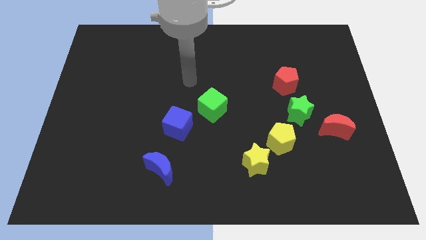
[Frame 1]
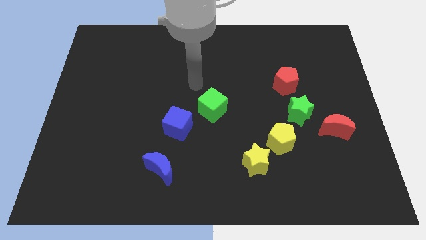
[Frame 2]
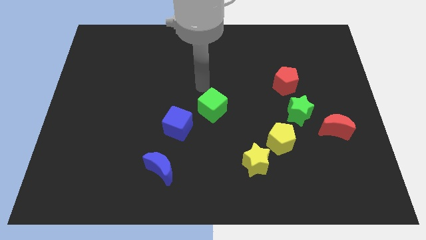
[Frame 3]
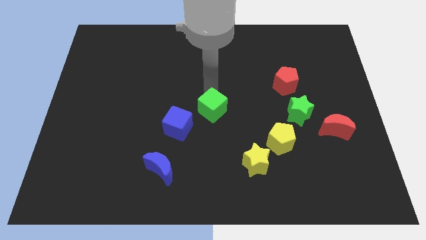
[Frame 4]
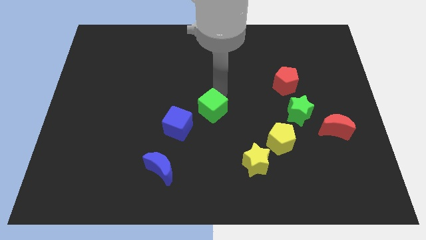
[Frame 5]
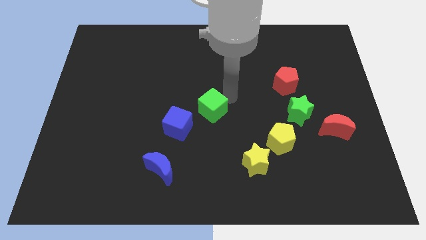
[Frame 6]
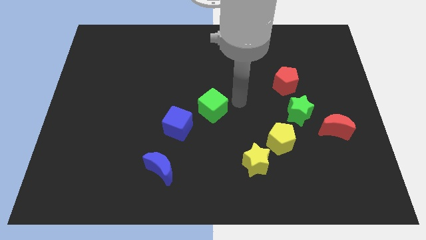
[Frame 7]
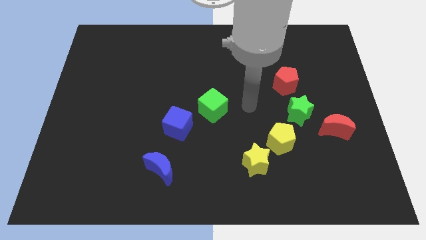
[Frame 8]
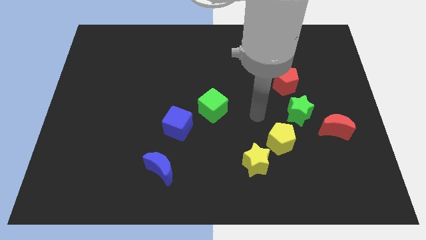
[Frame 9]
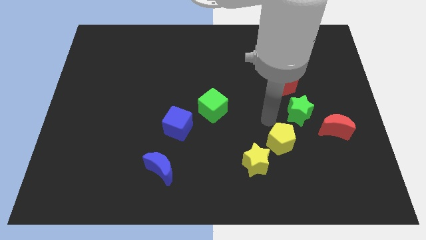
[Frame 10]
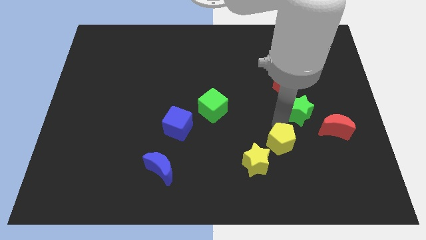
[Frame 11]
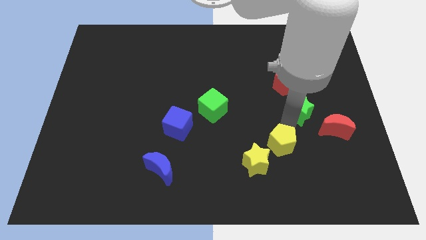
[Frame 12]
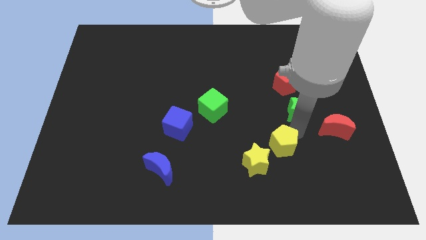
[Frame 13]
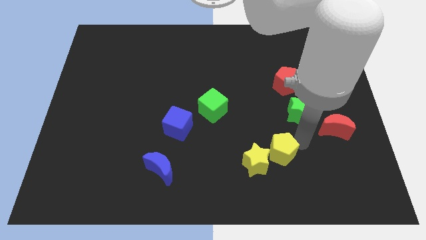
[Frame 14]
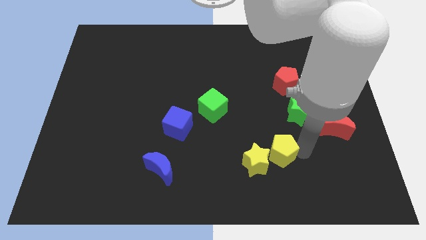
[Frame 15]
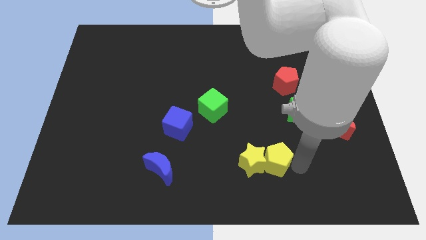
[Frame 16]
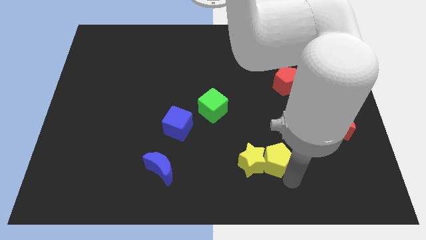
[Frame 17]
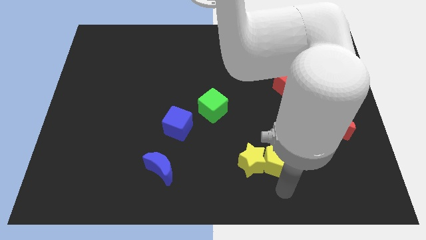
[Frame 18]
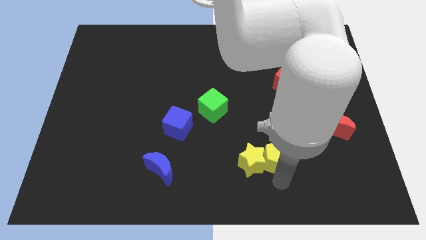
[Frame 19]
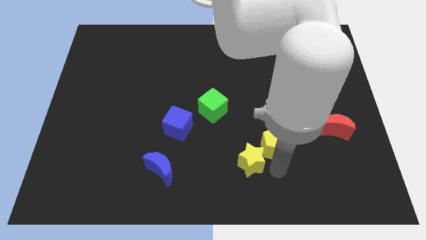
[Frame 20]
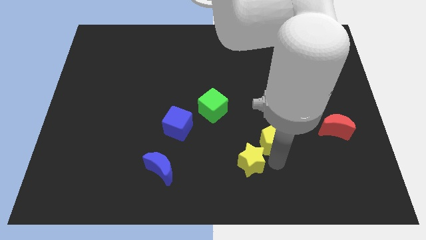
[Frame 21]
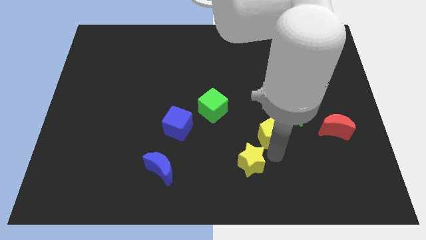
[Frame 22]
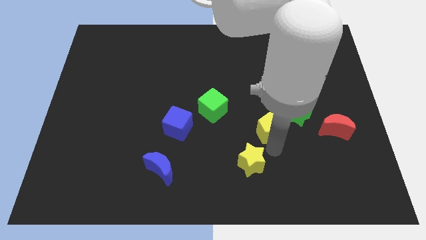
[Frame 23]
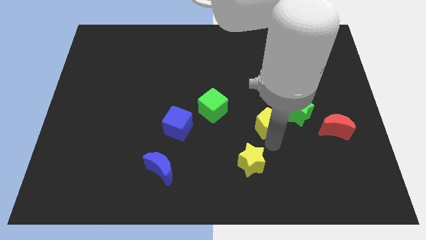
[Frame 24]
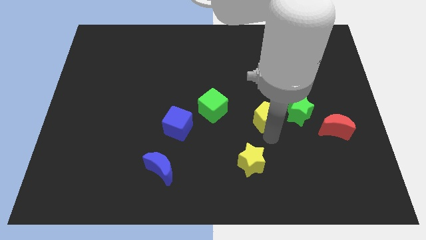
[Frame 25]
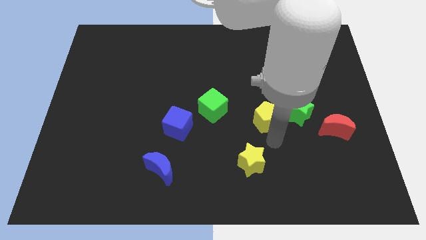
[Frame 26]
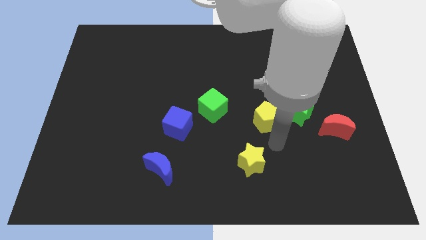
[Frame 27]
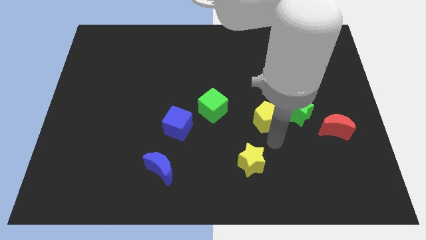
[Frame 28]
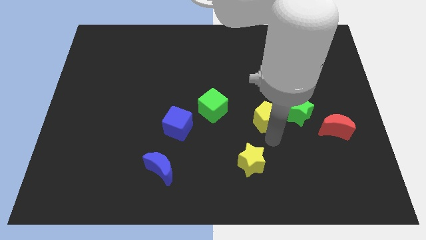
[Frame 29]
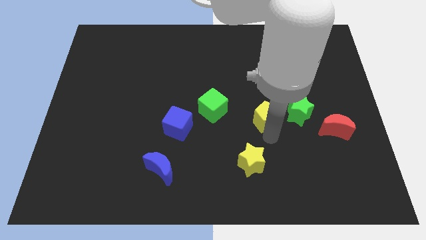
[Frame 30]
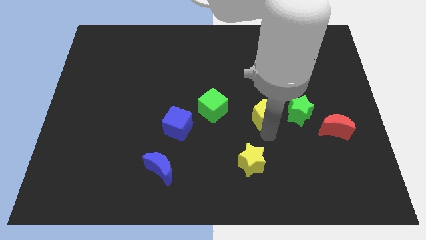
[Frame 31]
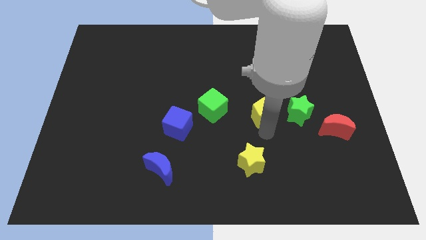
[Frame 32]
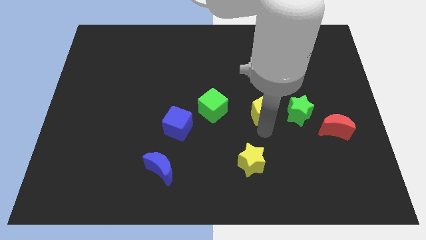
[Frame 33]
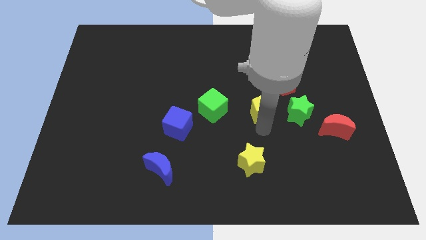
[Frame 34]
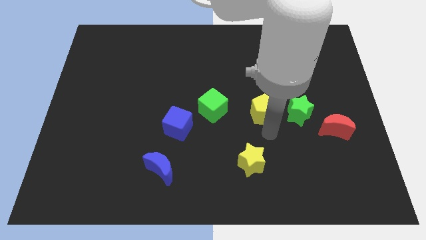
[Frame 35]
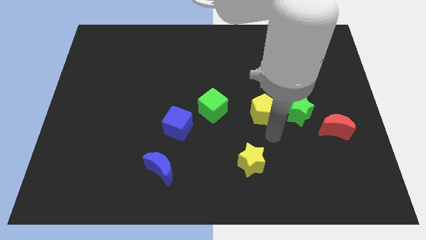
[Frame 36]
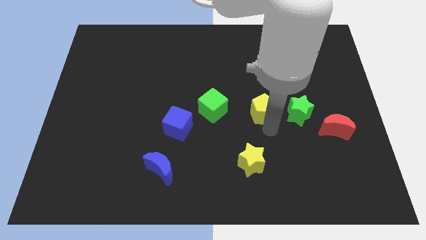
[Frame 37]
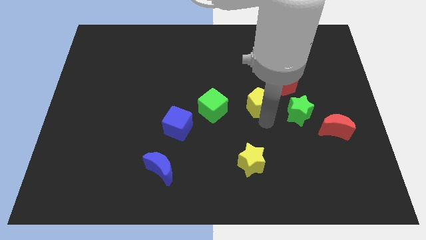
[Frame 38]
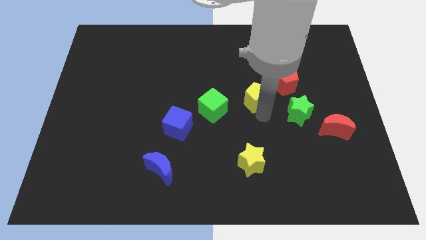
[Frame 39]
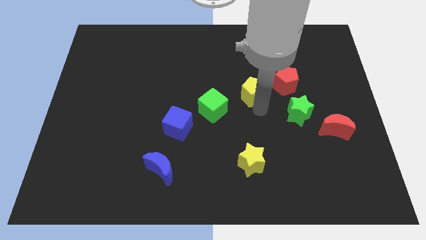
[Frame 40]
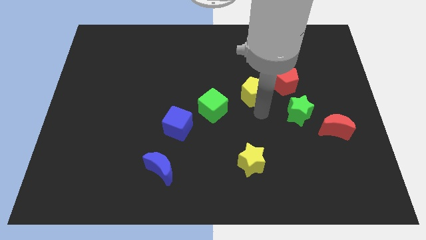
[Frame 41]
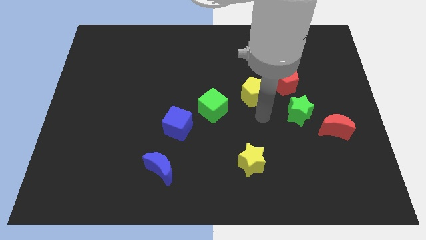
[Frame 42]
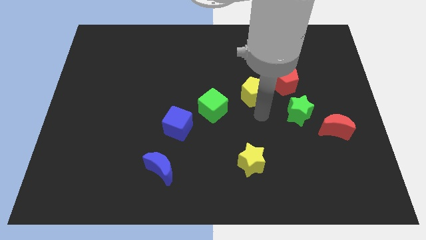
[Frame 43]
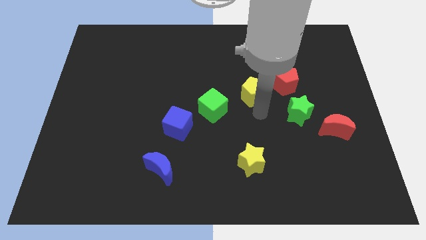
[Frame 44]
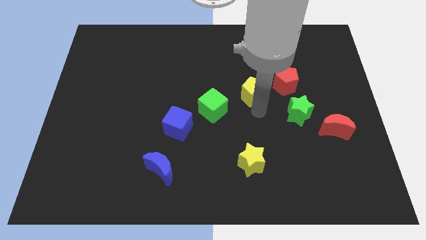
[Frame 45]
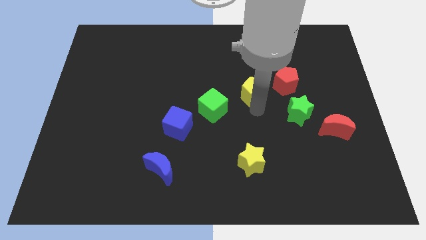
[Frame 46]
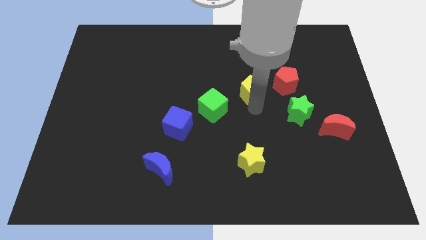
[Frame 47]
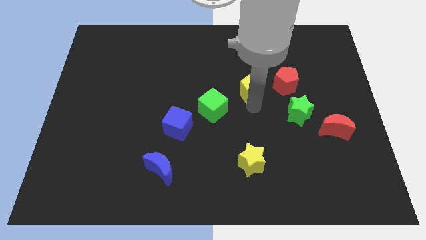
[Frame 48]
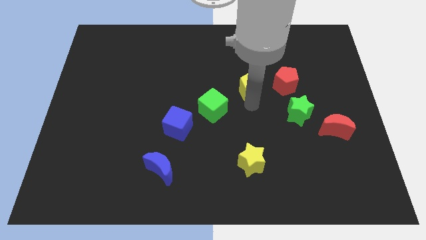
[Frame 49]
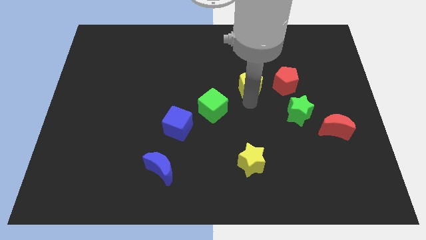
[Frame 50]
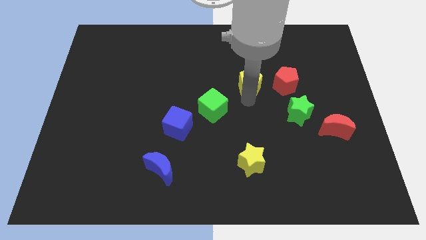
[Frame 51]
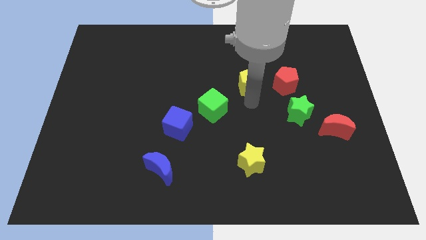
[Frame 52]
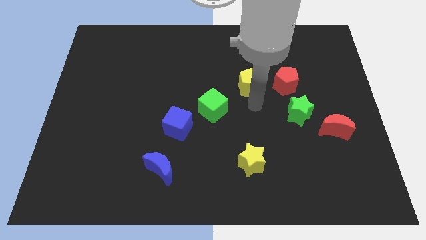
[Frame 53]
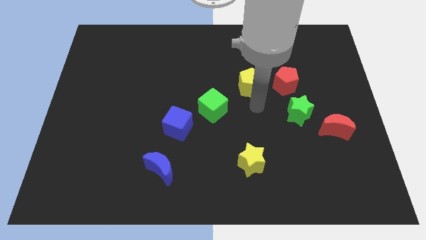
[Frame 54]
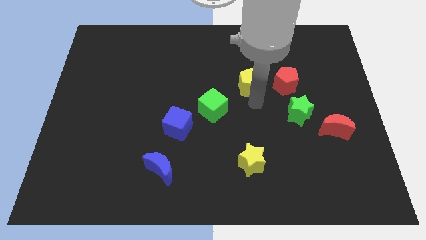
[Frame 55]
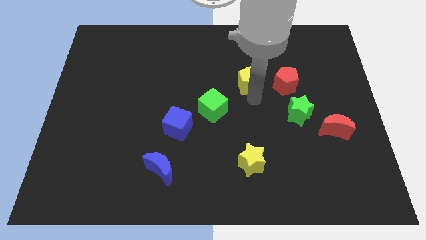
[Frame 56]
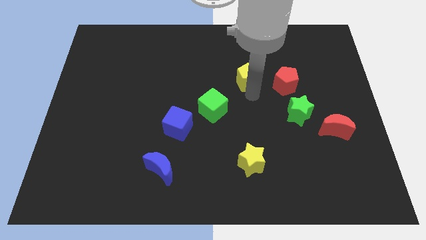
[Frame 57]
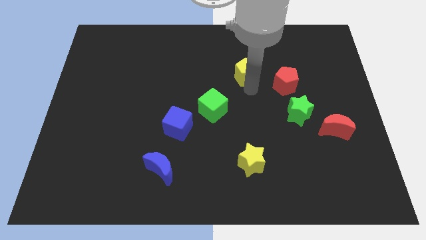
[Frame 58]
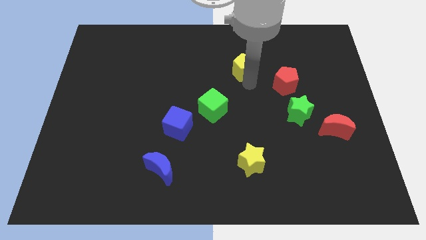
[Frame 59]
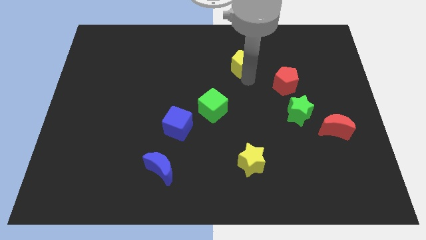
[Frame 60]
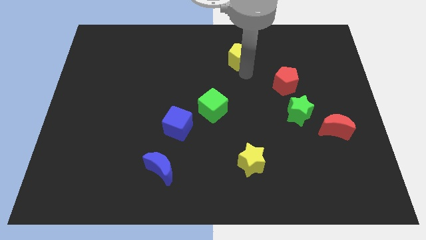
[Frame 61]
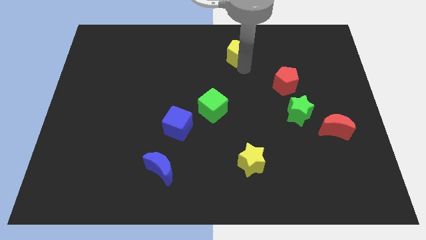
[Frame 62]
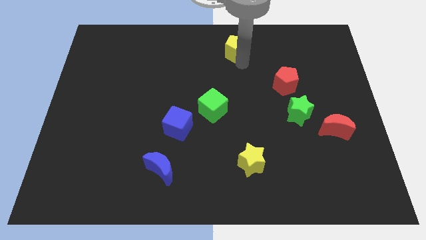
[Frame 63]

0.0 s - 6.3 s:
put the yellow pentagon to the top
